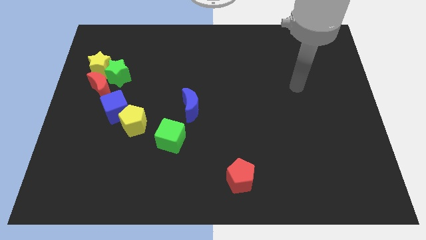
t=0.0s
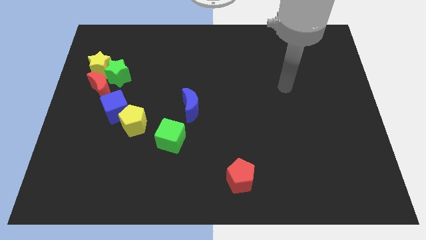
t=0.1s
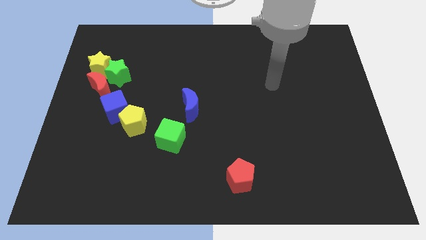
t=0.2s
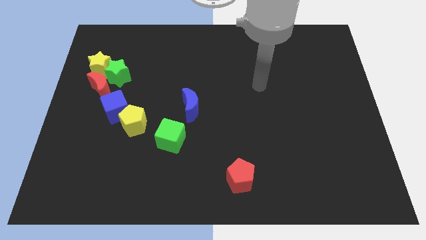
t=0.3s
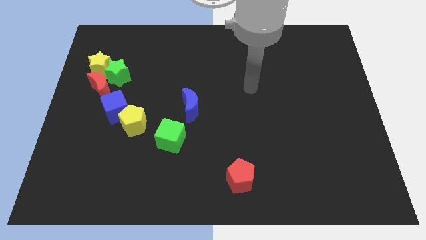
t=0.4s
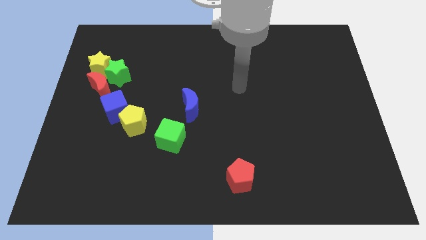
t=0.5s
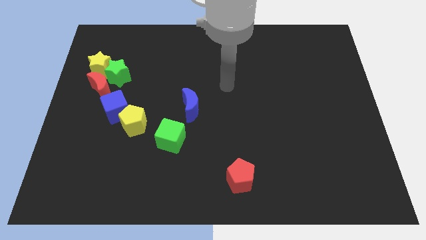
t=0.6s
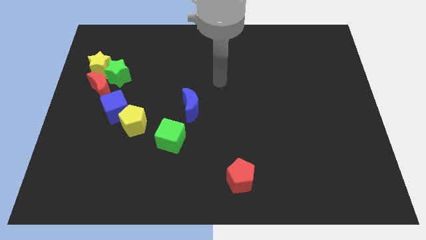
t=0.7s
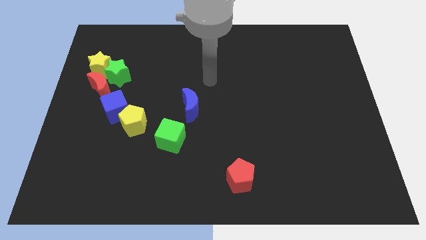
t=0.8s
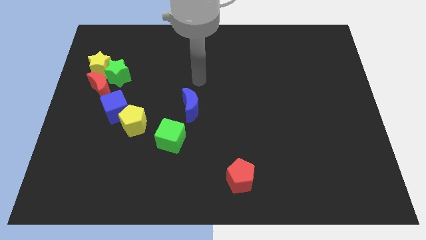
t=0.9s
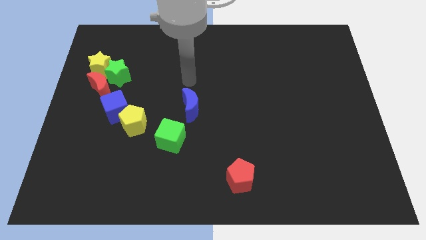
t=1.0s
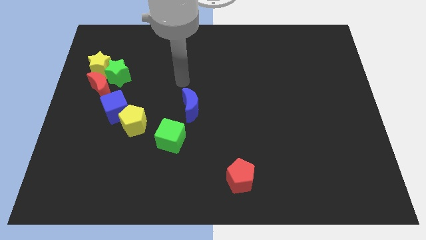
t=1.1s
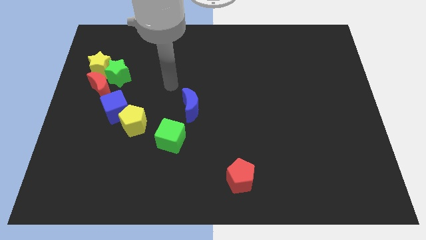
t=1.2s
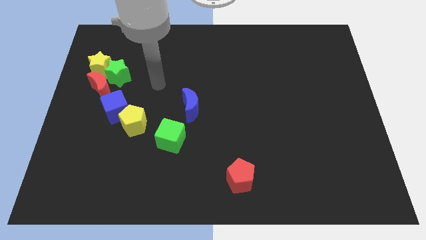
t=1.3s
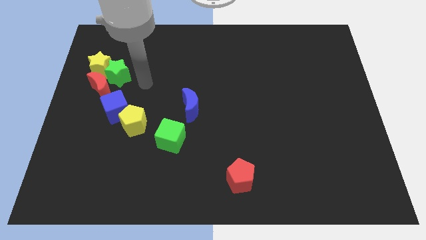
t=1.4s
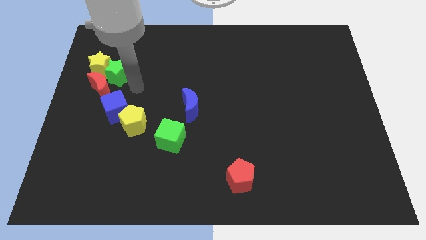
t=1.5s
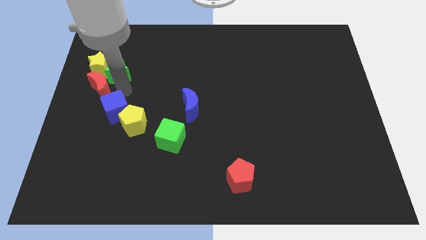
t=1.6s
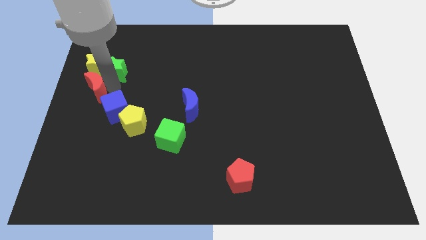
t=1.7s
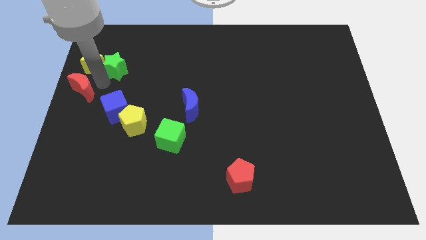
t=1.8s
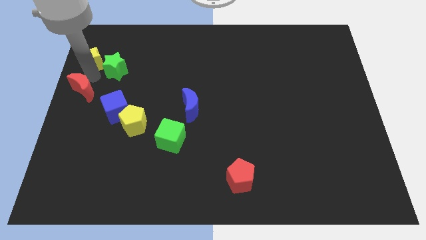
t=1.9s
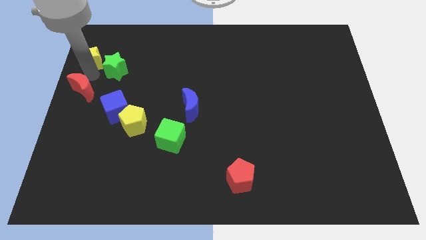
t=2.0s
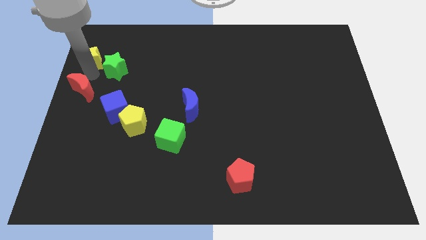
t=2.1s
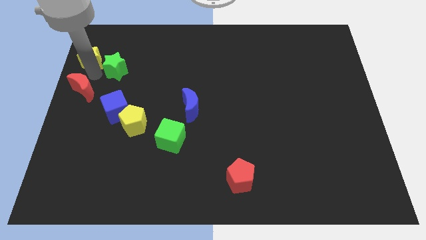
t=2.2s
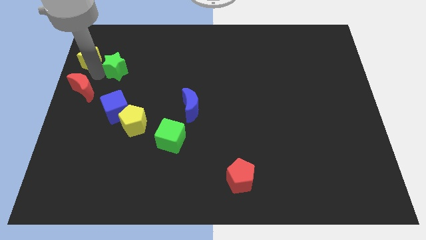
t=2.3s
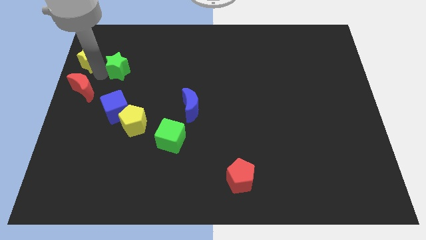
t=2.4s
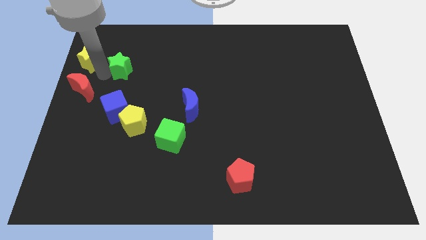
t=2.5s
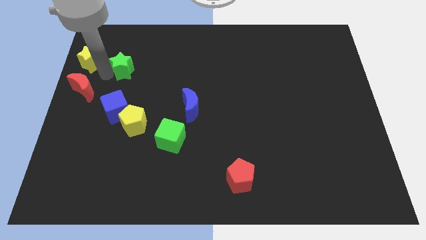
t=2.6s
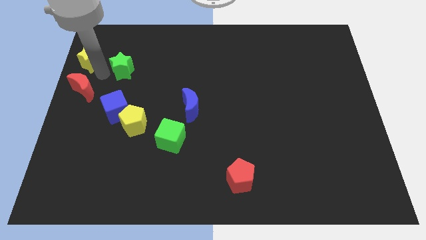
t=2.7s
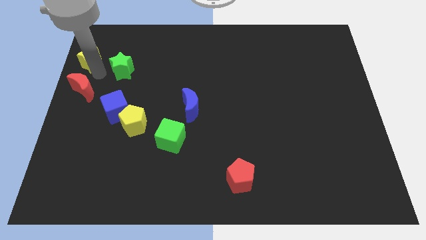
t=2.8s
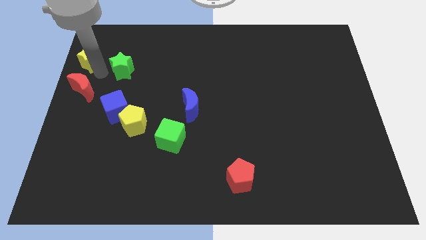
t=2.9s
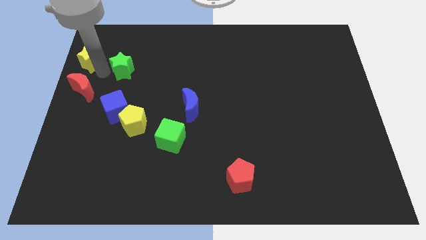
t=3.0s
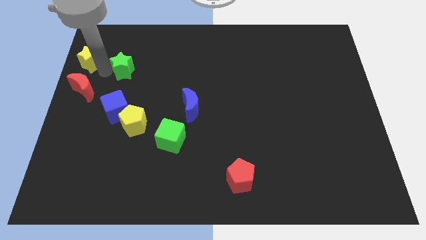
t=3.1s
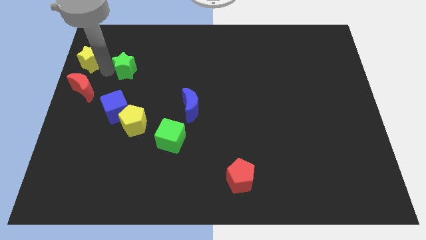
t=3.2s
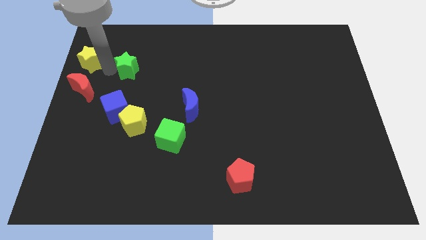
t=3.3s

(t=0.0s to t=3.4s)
pull the green star apart from the yellow star and red moon

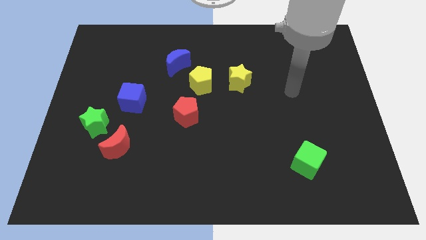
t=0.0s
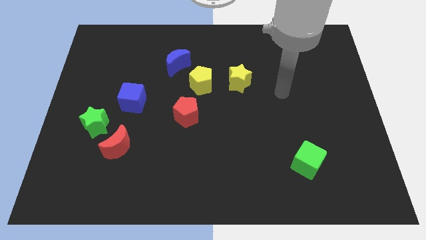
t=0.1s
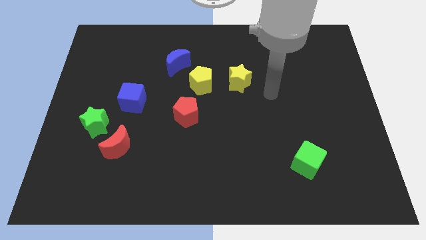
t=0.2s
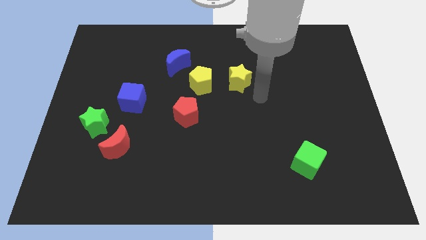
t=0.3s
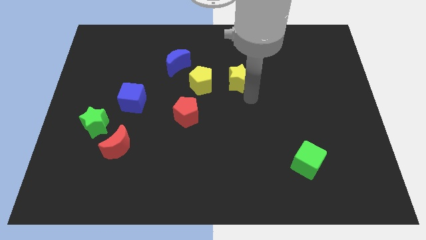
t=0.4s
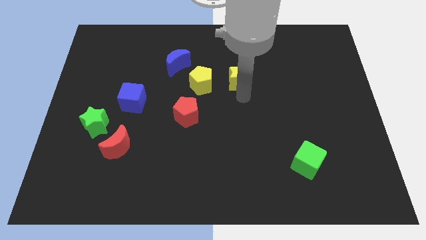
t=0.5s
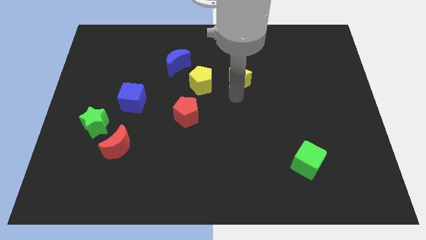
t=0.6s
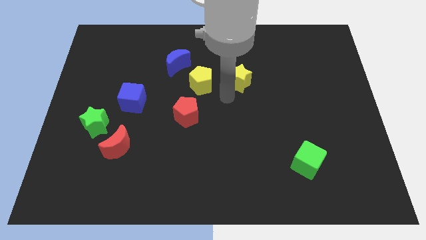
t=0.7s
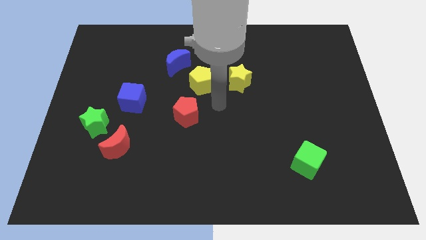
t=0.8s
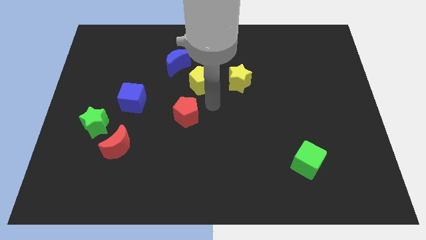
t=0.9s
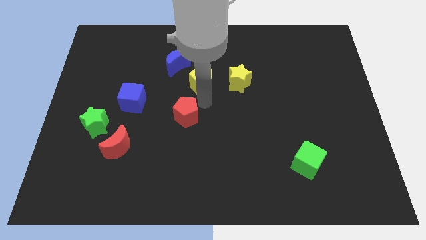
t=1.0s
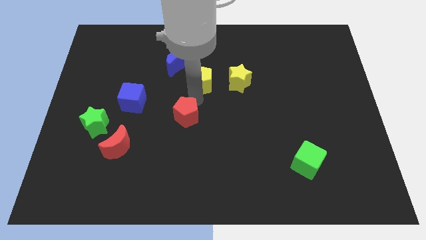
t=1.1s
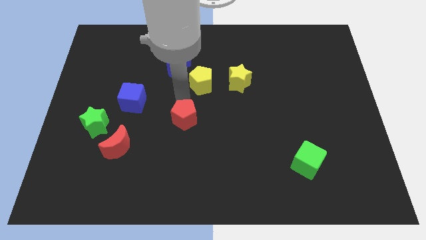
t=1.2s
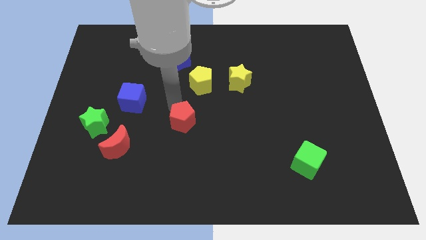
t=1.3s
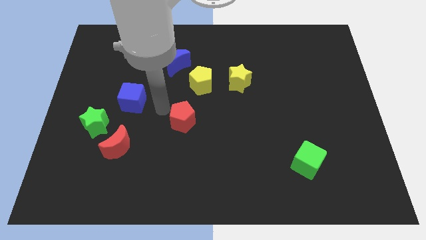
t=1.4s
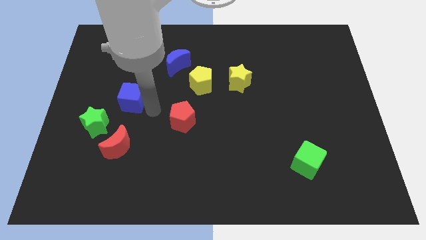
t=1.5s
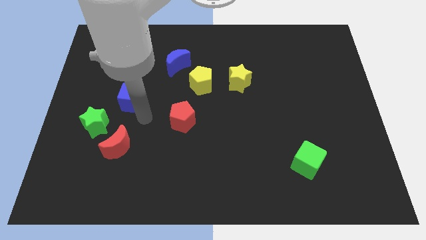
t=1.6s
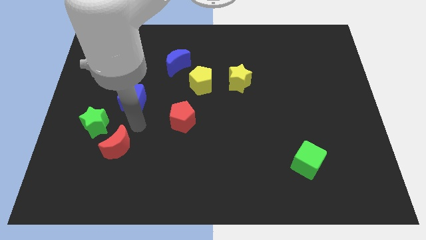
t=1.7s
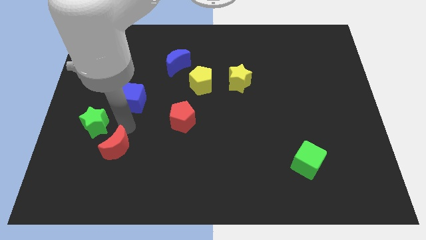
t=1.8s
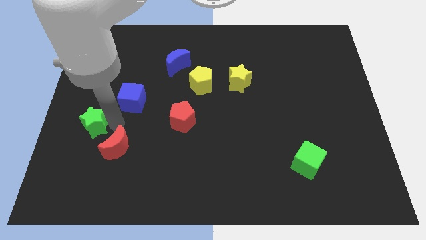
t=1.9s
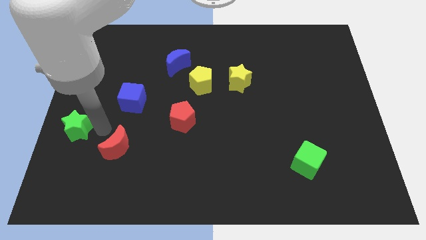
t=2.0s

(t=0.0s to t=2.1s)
move the red moon away from the green star

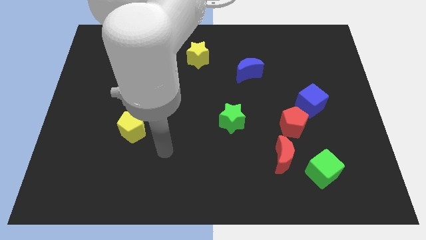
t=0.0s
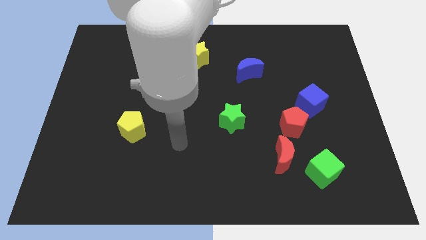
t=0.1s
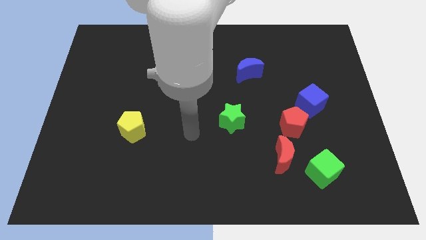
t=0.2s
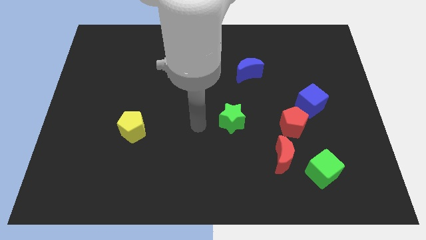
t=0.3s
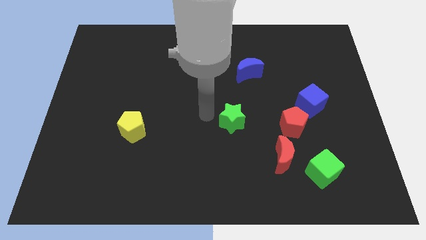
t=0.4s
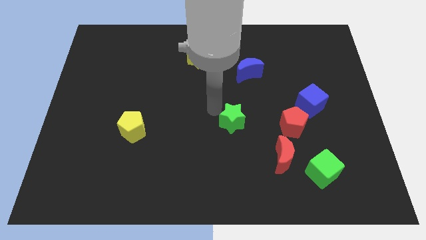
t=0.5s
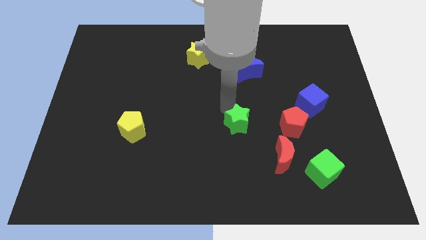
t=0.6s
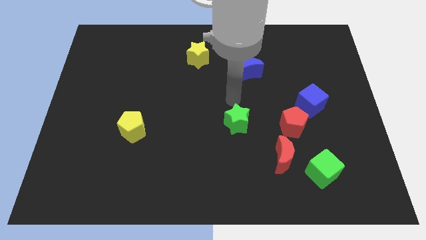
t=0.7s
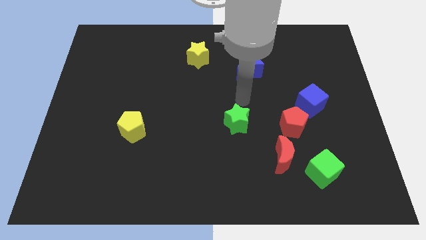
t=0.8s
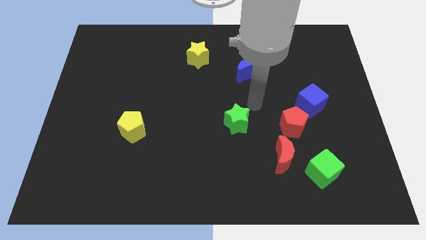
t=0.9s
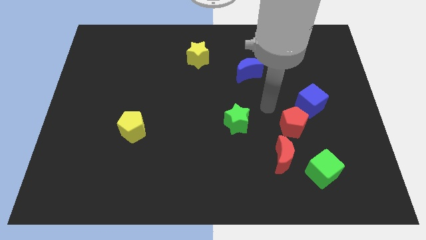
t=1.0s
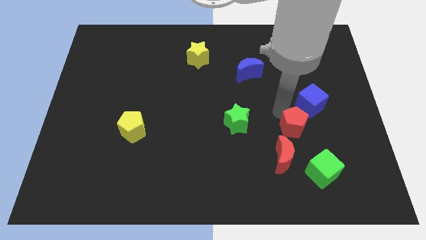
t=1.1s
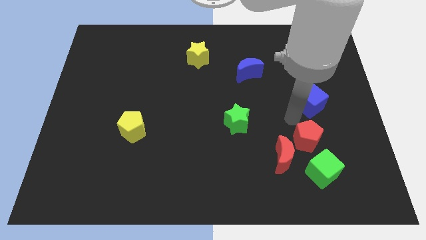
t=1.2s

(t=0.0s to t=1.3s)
move the blue cube away from the red pentagon

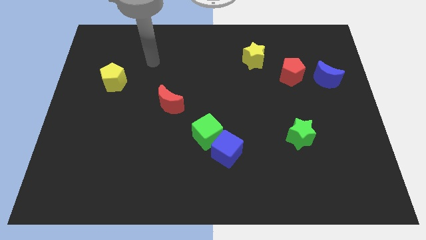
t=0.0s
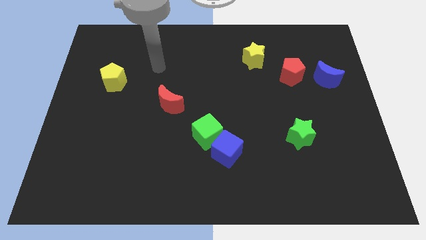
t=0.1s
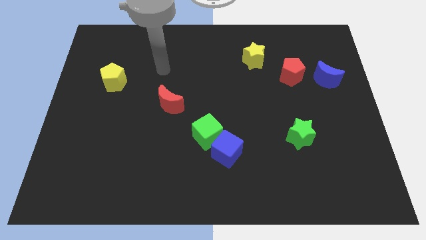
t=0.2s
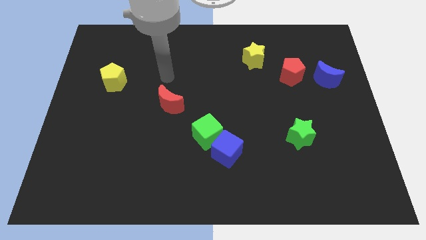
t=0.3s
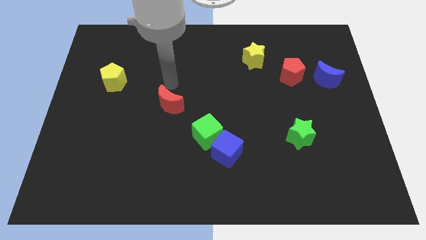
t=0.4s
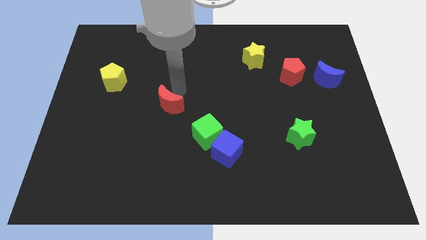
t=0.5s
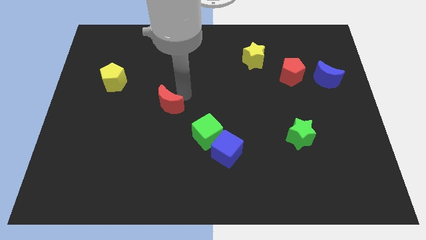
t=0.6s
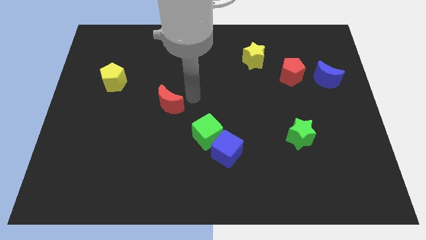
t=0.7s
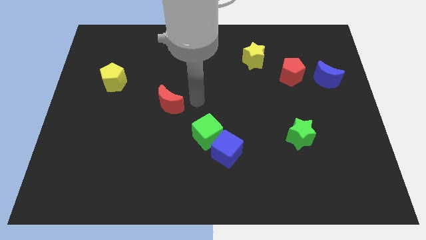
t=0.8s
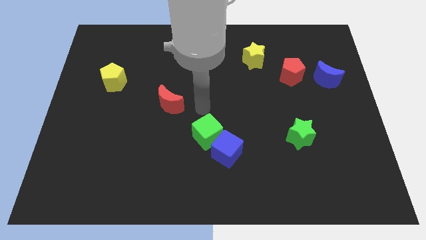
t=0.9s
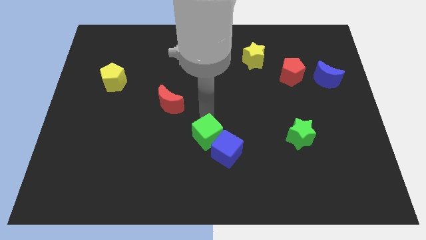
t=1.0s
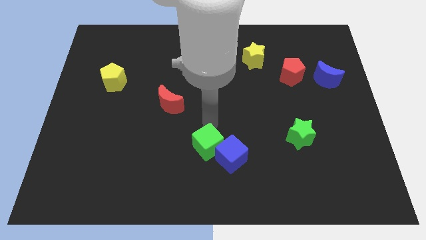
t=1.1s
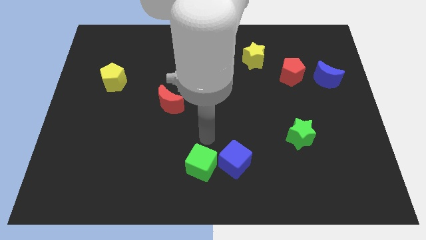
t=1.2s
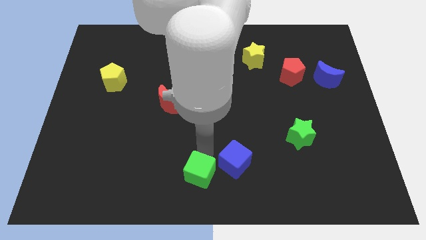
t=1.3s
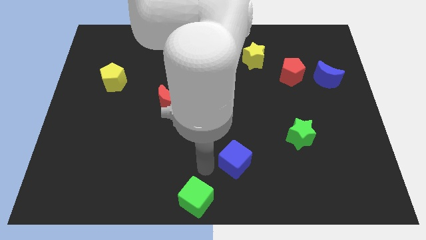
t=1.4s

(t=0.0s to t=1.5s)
separate the blue cube from the green cube

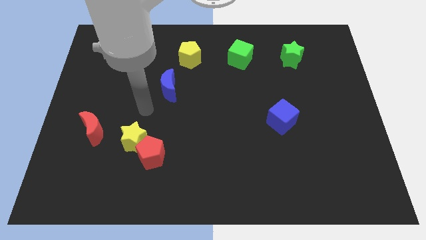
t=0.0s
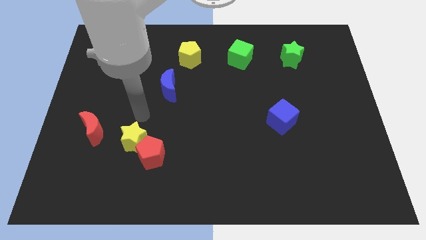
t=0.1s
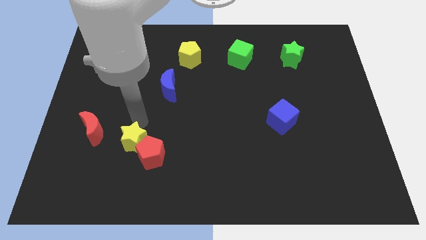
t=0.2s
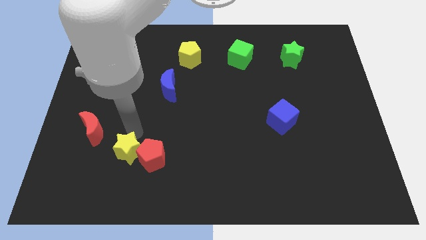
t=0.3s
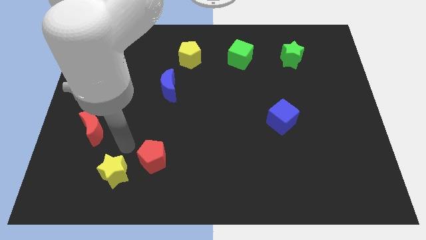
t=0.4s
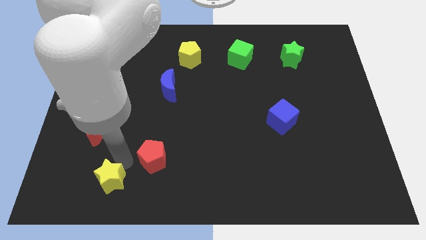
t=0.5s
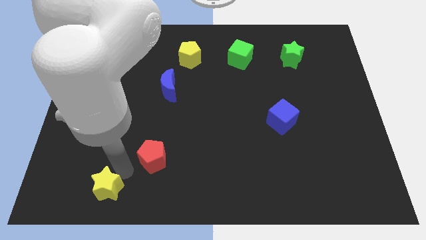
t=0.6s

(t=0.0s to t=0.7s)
move the red pentagon away from the yellow star

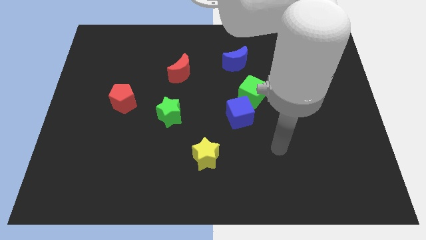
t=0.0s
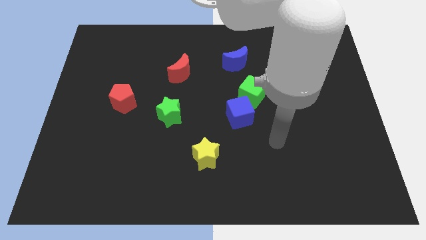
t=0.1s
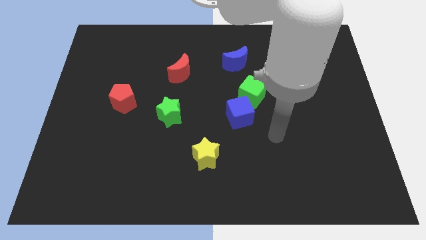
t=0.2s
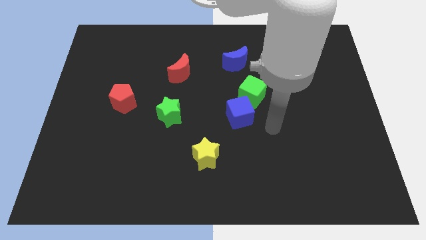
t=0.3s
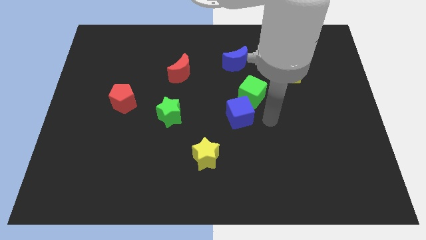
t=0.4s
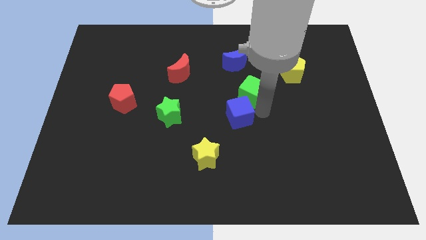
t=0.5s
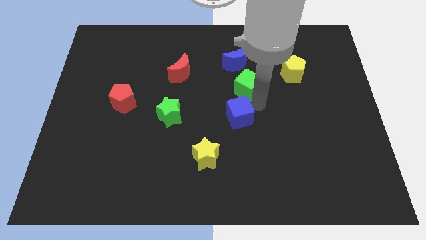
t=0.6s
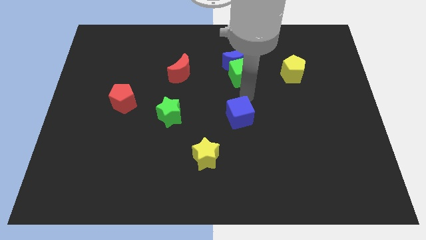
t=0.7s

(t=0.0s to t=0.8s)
move the blue cube away from the green cube
